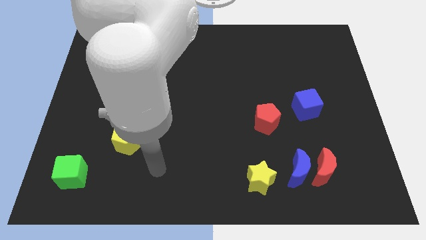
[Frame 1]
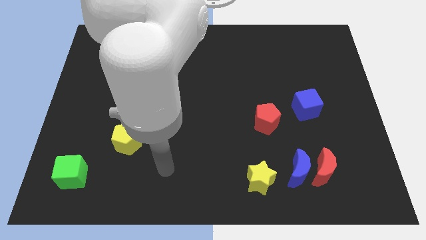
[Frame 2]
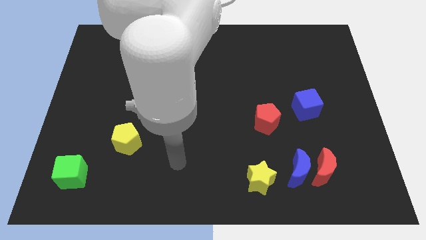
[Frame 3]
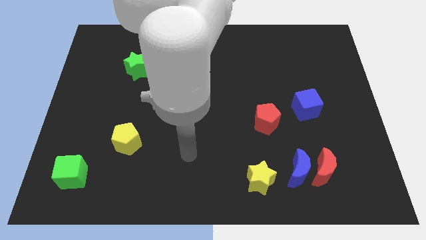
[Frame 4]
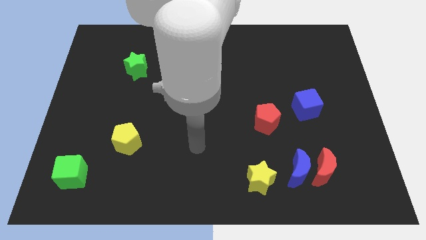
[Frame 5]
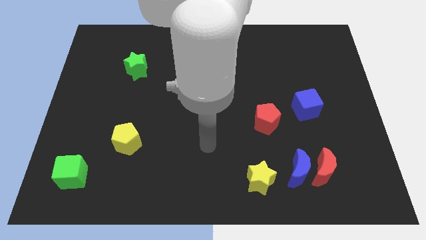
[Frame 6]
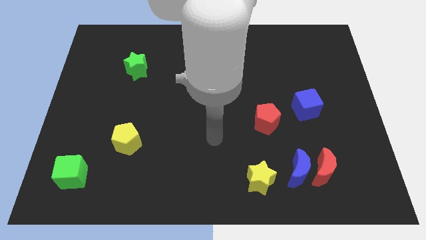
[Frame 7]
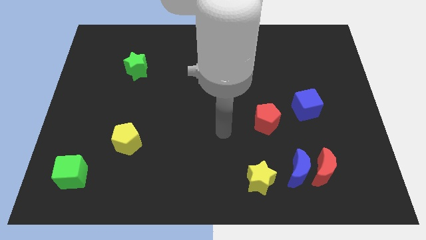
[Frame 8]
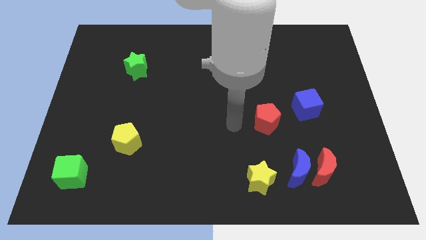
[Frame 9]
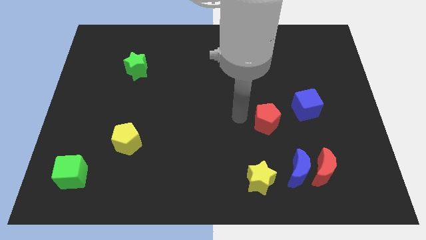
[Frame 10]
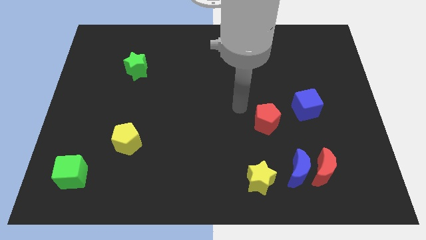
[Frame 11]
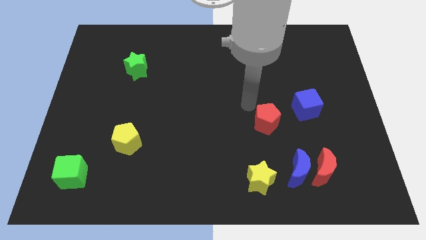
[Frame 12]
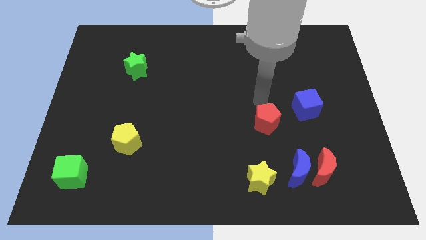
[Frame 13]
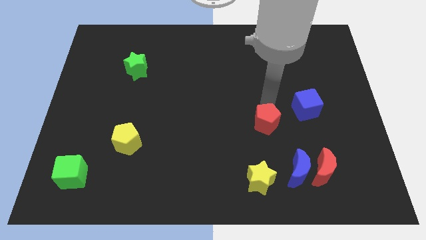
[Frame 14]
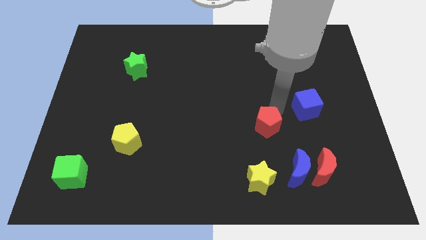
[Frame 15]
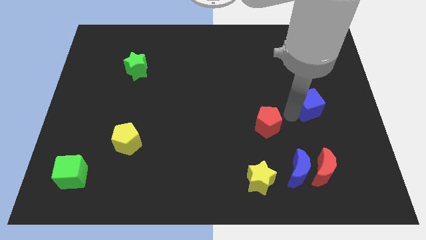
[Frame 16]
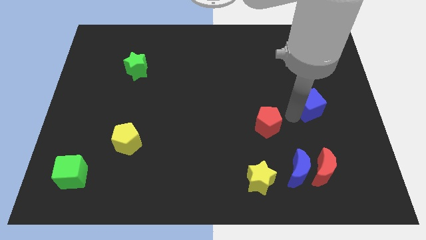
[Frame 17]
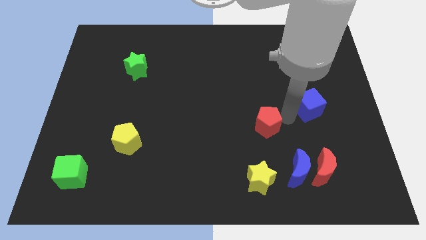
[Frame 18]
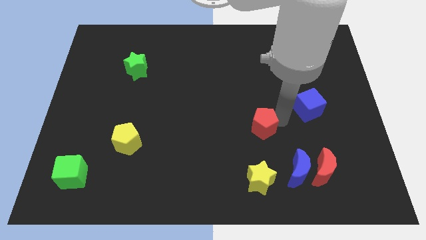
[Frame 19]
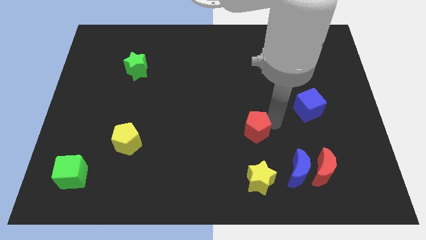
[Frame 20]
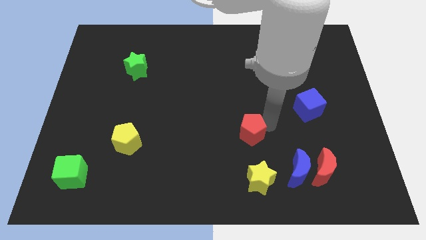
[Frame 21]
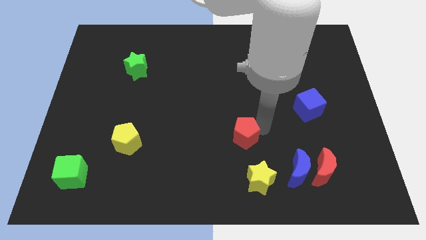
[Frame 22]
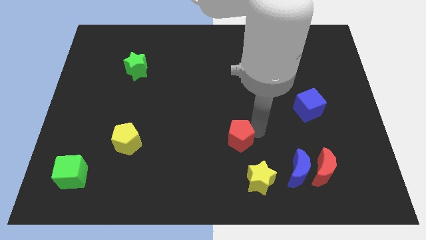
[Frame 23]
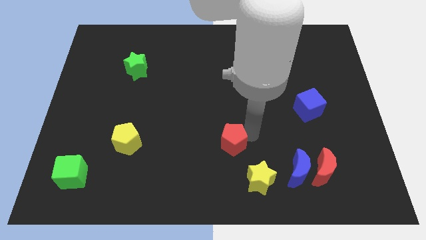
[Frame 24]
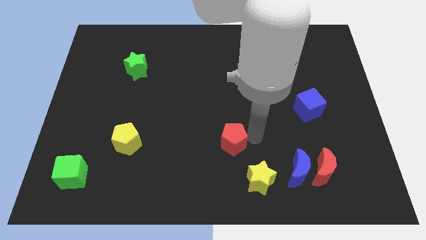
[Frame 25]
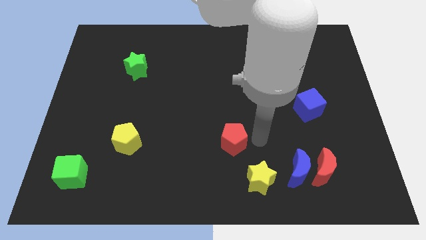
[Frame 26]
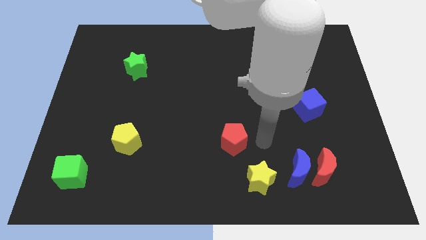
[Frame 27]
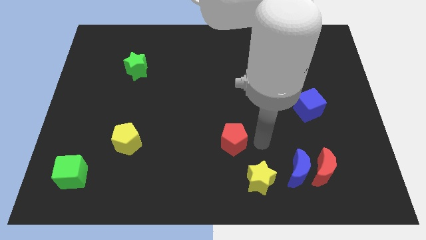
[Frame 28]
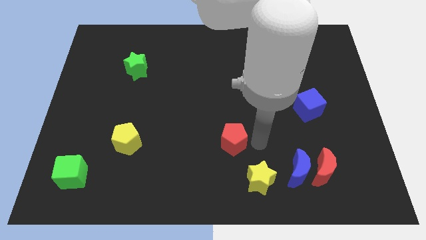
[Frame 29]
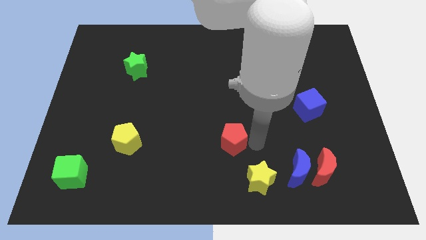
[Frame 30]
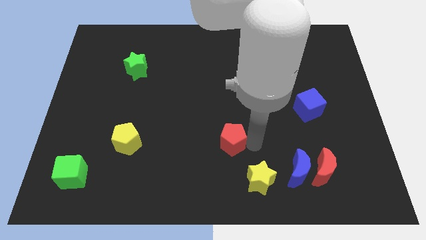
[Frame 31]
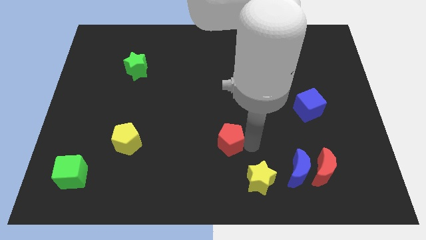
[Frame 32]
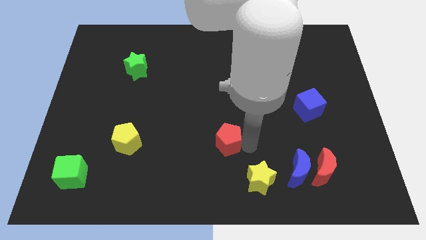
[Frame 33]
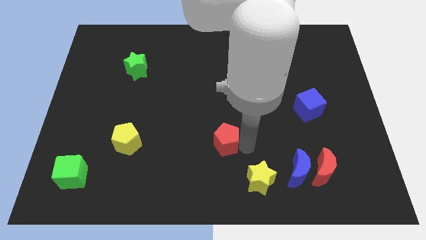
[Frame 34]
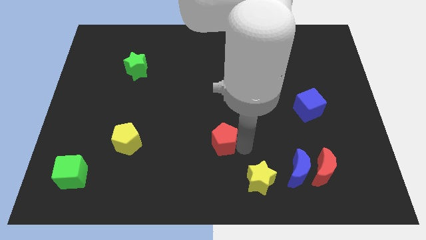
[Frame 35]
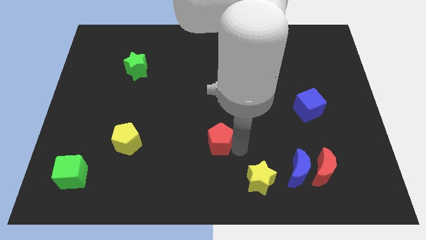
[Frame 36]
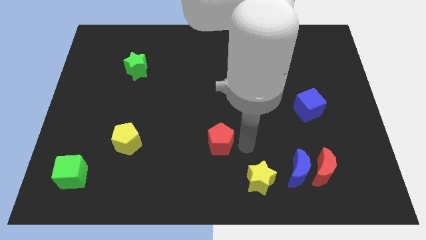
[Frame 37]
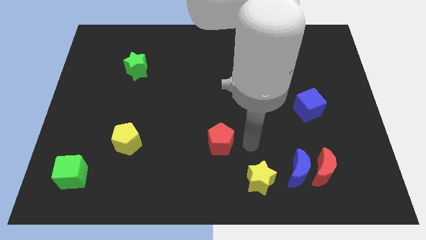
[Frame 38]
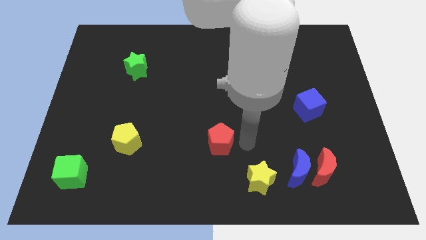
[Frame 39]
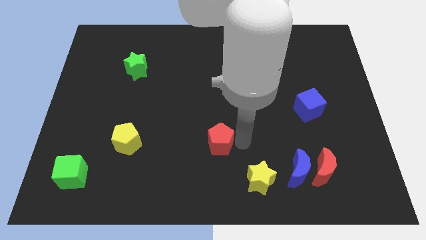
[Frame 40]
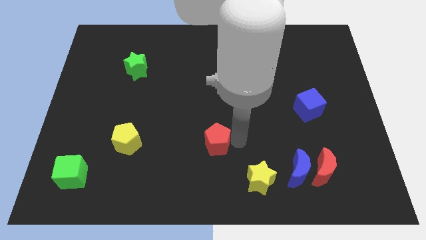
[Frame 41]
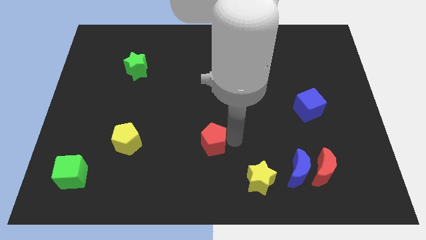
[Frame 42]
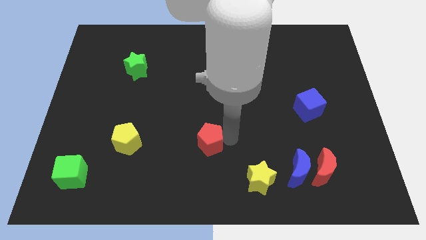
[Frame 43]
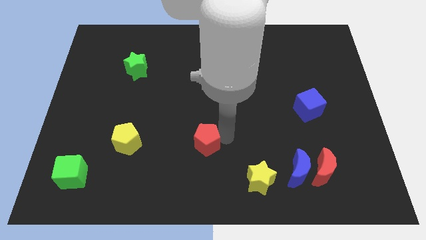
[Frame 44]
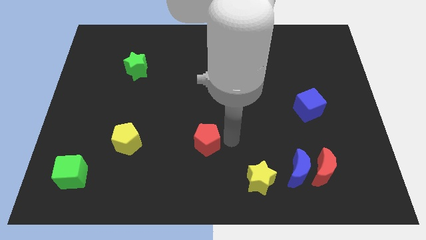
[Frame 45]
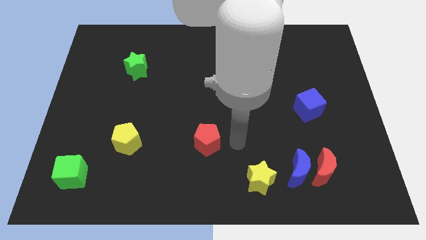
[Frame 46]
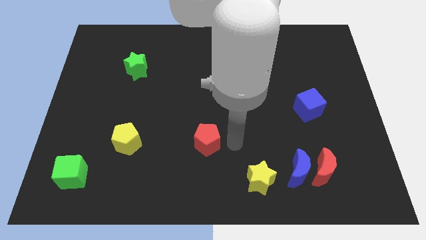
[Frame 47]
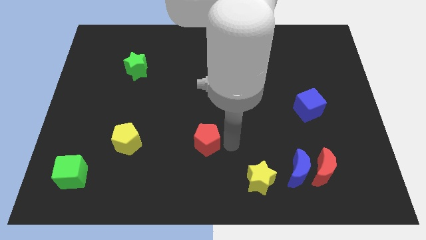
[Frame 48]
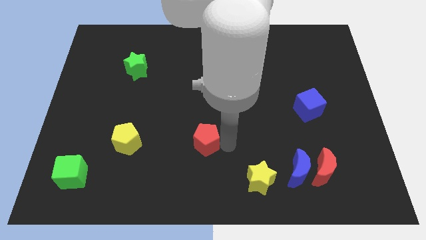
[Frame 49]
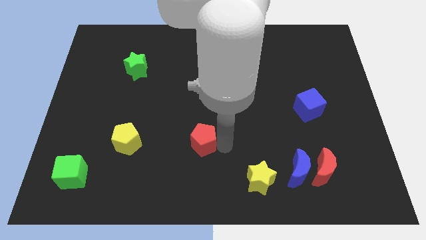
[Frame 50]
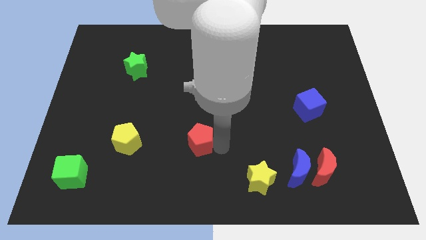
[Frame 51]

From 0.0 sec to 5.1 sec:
push the red pentagon to the right side of the yellow pentagon

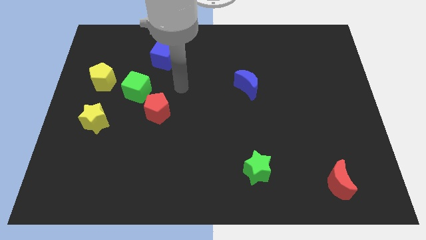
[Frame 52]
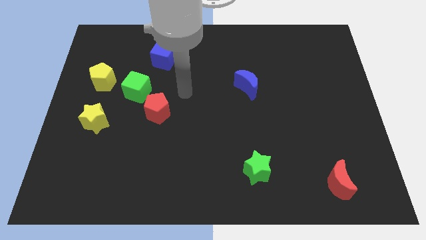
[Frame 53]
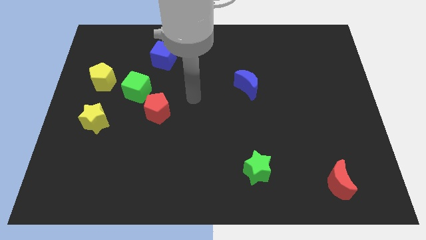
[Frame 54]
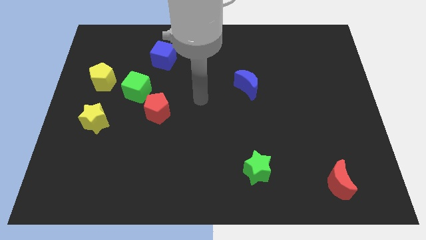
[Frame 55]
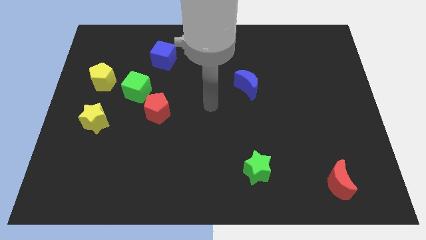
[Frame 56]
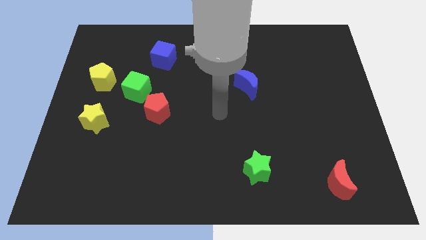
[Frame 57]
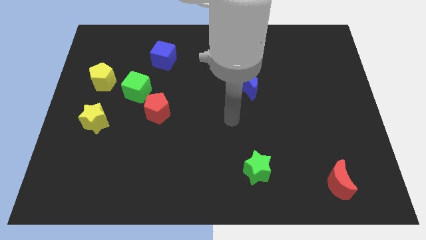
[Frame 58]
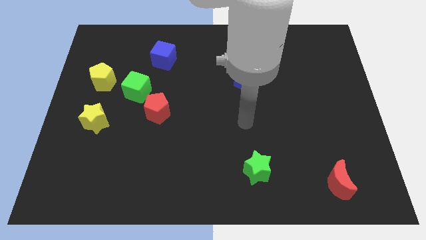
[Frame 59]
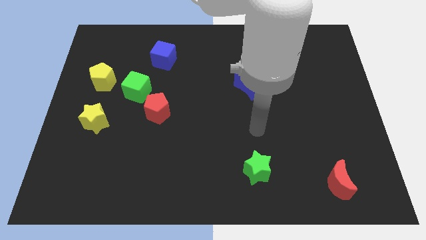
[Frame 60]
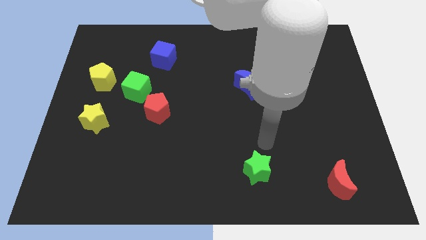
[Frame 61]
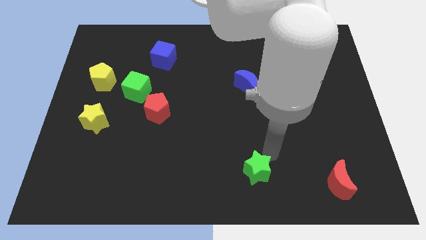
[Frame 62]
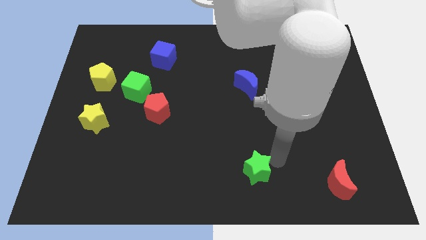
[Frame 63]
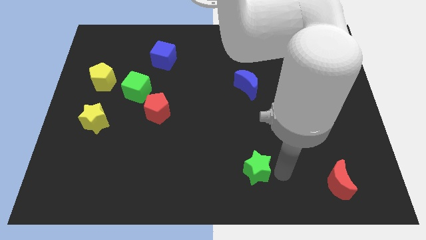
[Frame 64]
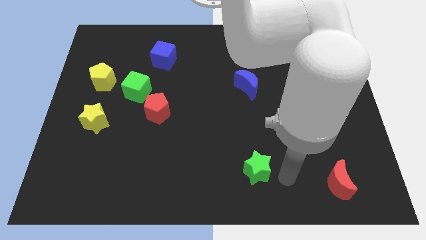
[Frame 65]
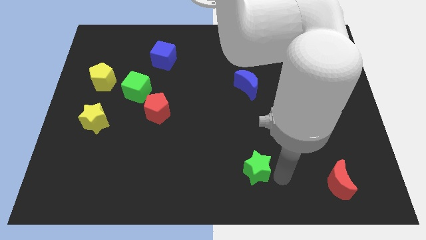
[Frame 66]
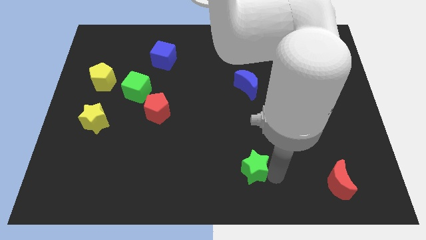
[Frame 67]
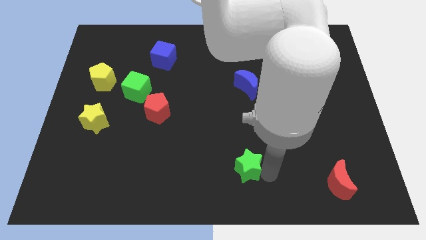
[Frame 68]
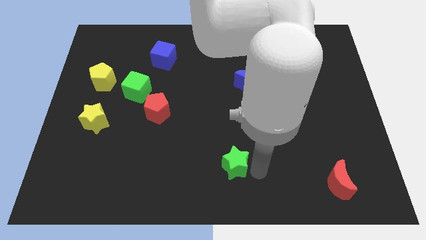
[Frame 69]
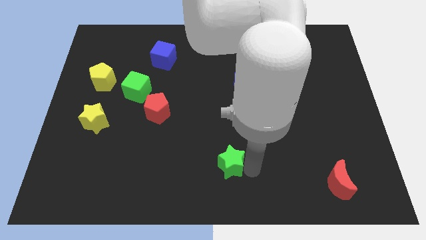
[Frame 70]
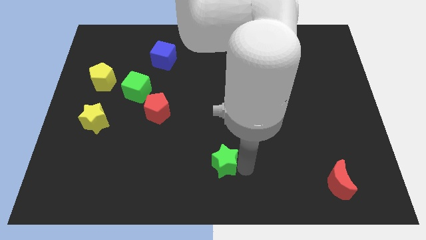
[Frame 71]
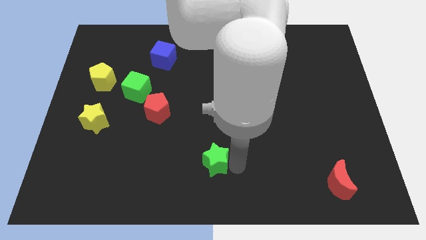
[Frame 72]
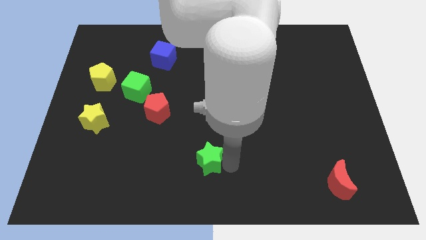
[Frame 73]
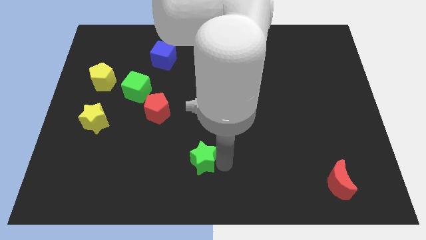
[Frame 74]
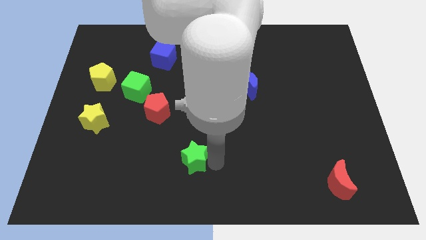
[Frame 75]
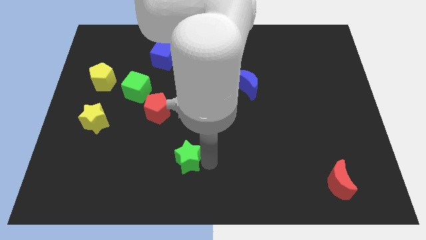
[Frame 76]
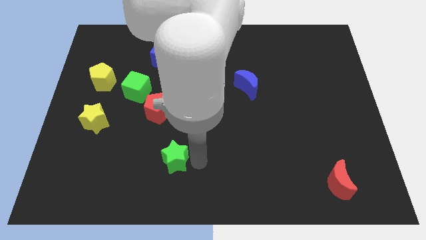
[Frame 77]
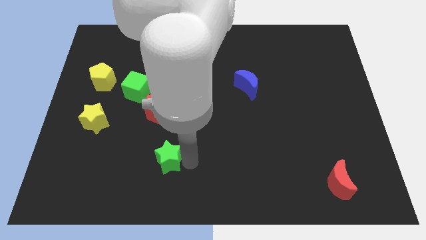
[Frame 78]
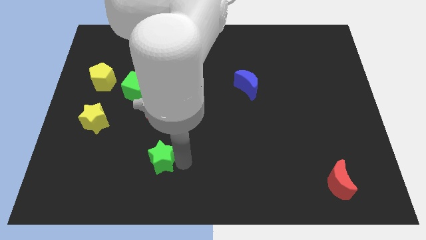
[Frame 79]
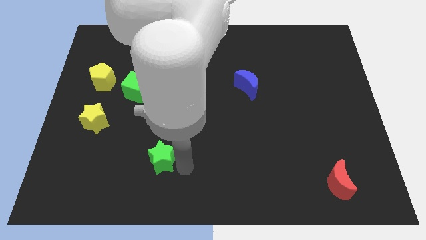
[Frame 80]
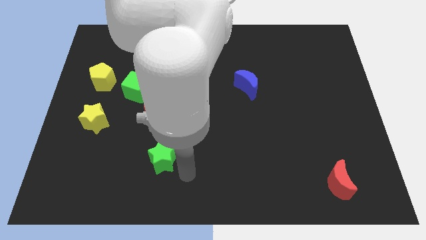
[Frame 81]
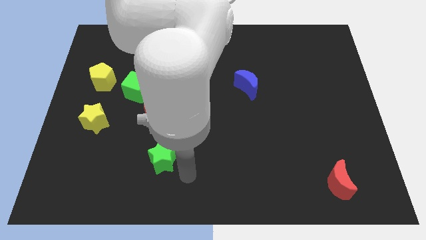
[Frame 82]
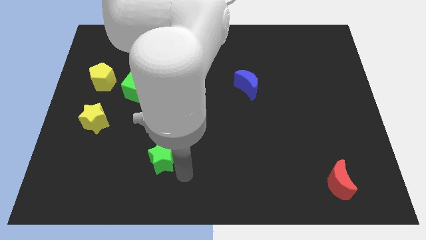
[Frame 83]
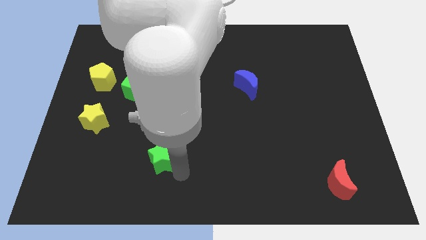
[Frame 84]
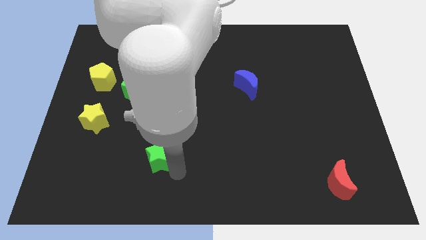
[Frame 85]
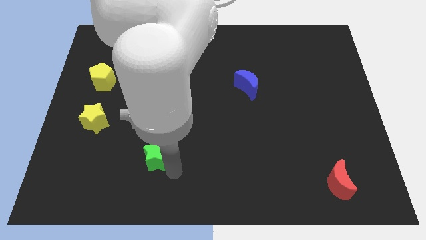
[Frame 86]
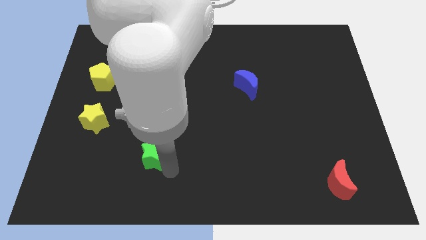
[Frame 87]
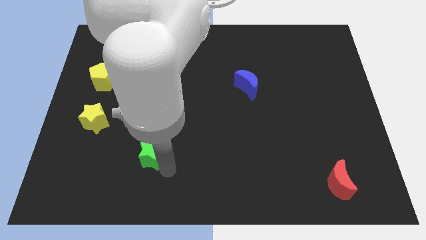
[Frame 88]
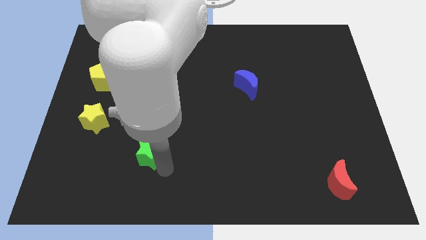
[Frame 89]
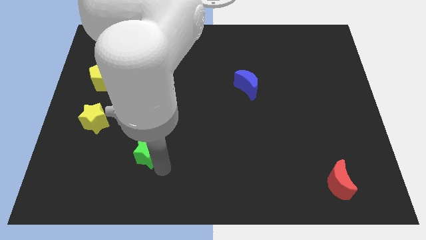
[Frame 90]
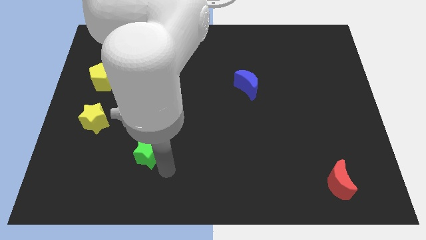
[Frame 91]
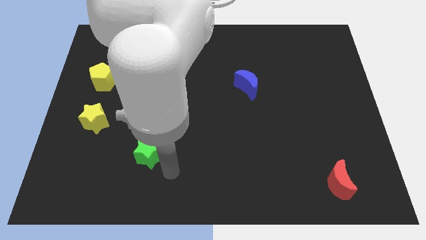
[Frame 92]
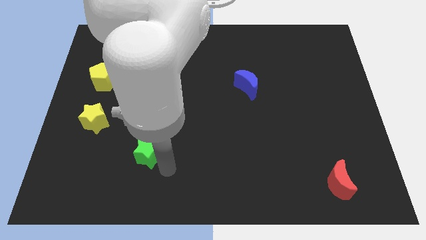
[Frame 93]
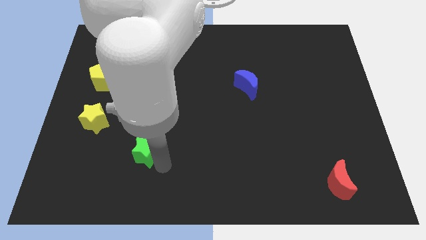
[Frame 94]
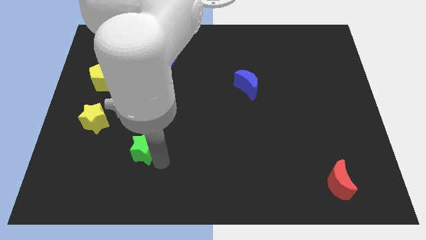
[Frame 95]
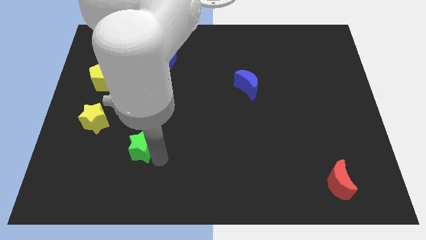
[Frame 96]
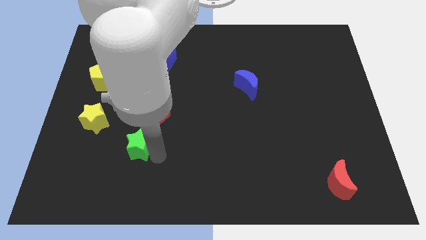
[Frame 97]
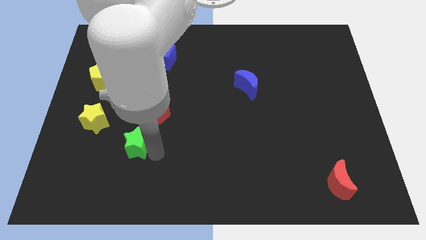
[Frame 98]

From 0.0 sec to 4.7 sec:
slide the green star to the bottom right side of the yellow star
